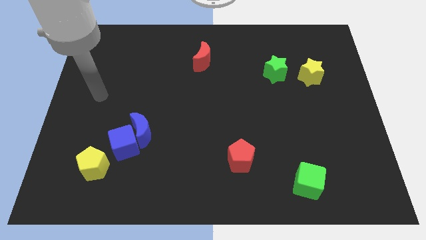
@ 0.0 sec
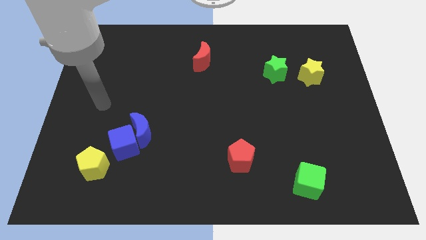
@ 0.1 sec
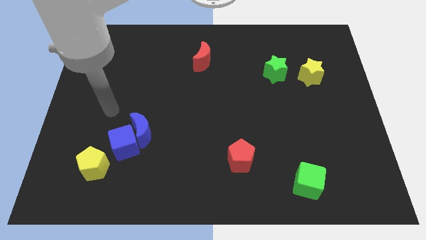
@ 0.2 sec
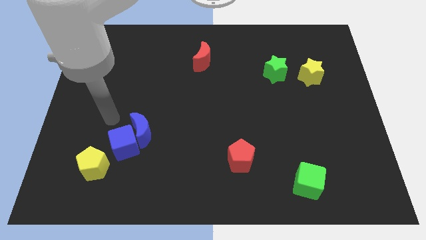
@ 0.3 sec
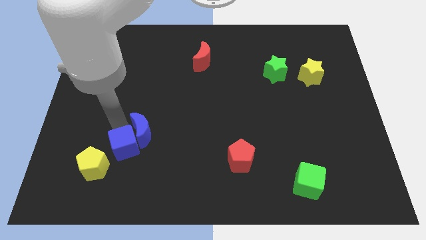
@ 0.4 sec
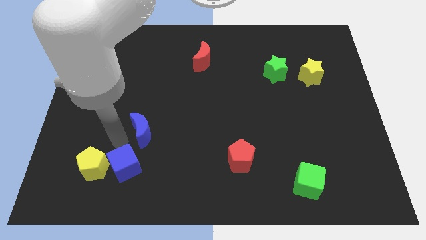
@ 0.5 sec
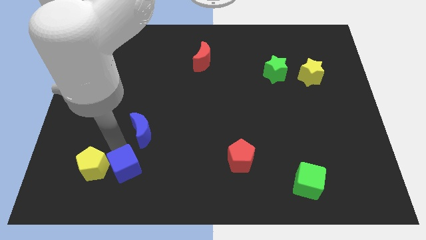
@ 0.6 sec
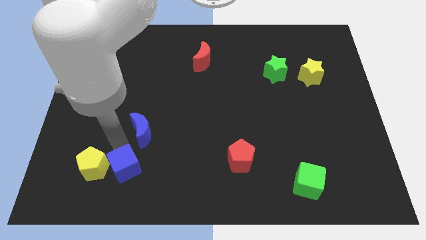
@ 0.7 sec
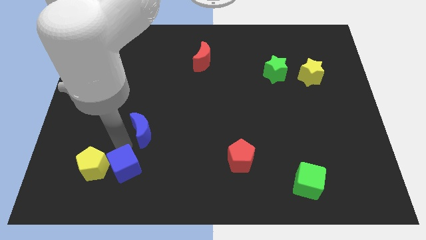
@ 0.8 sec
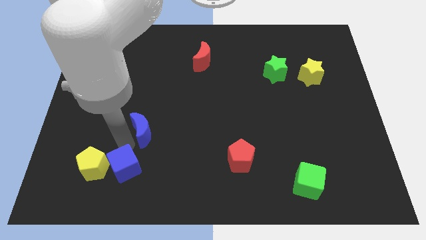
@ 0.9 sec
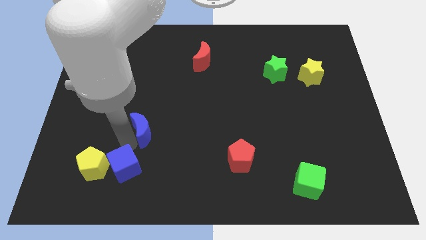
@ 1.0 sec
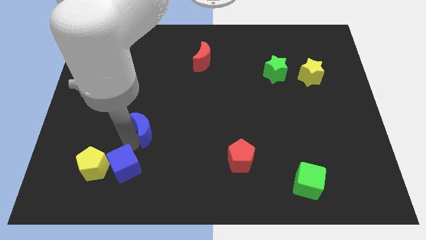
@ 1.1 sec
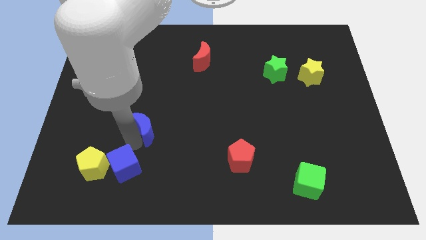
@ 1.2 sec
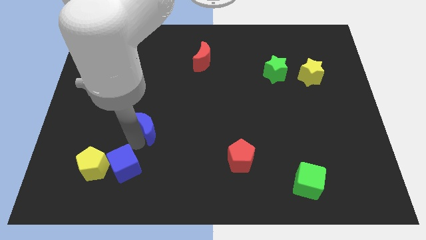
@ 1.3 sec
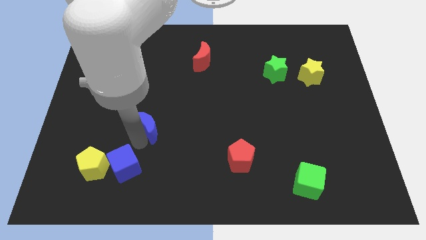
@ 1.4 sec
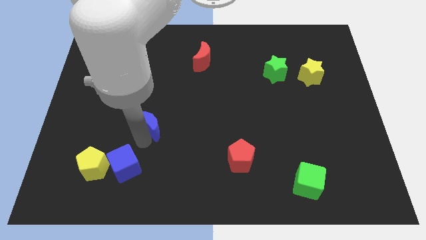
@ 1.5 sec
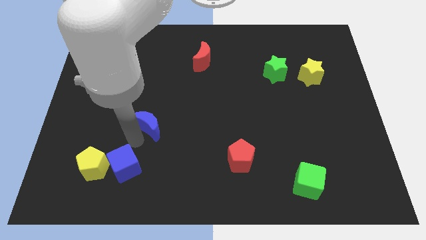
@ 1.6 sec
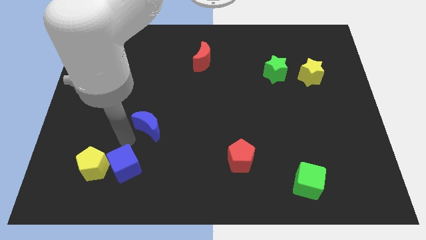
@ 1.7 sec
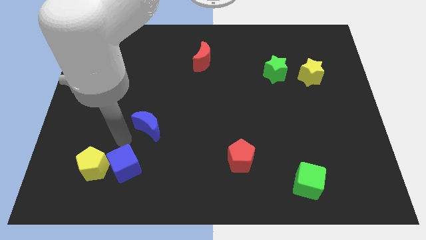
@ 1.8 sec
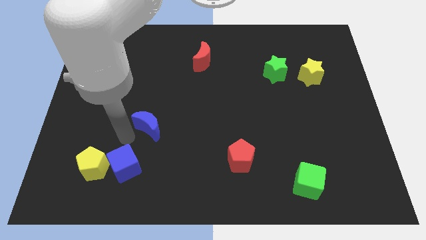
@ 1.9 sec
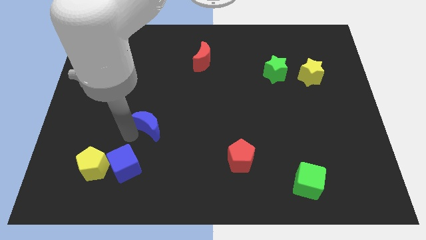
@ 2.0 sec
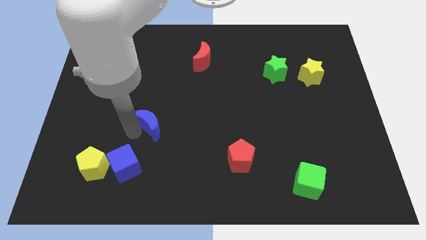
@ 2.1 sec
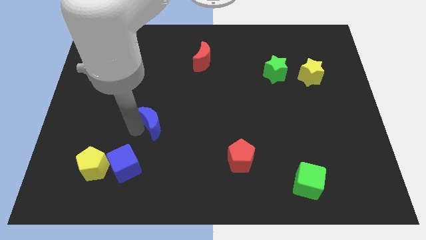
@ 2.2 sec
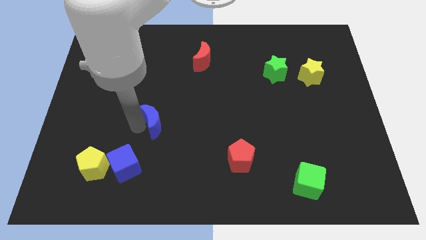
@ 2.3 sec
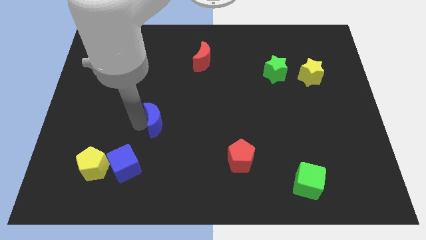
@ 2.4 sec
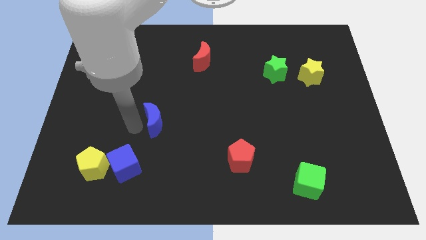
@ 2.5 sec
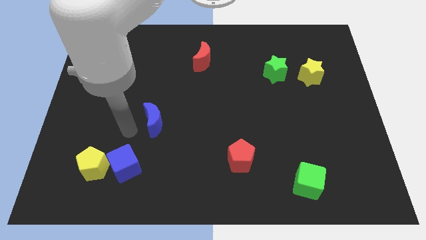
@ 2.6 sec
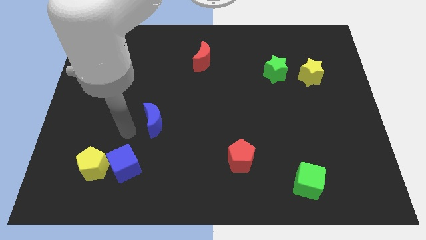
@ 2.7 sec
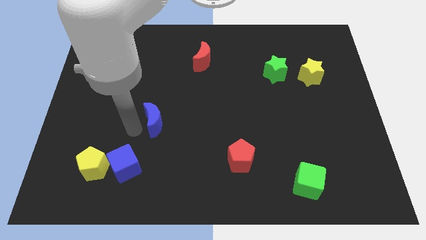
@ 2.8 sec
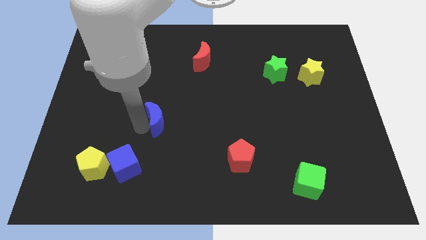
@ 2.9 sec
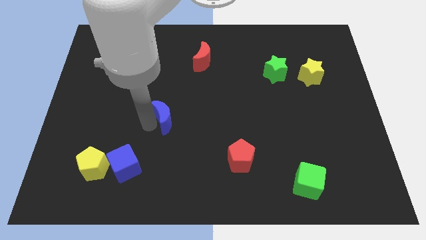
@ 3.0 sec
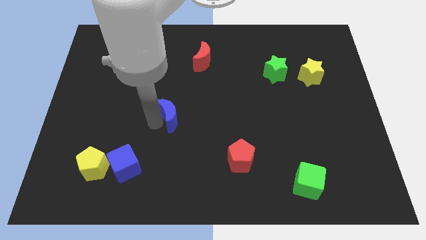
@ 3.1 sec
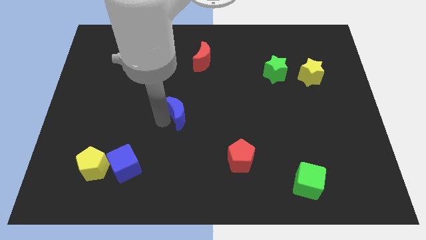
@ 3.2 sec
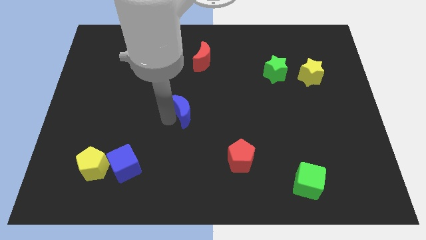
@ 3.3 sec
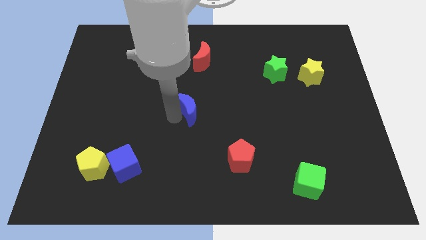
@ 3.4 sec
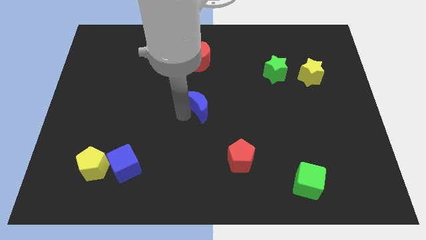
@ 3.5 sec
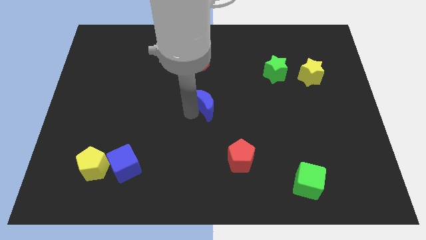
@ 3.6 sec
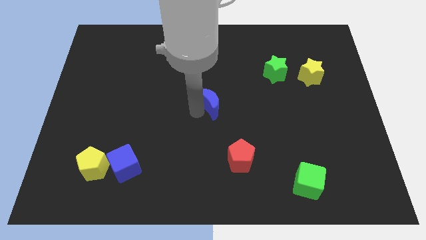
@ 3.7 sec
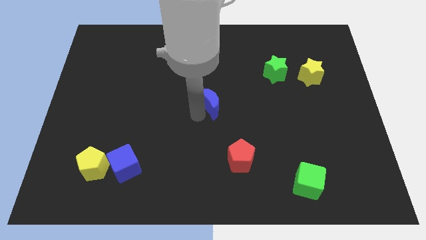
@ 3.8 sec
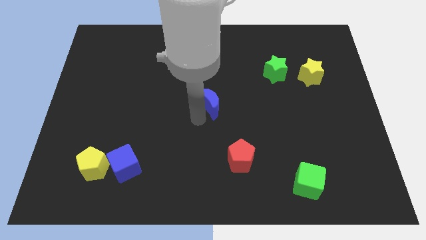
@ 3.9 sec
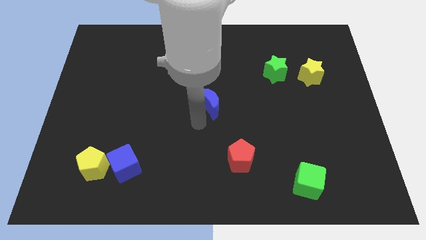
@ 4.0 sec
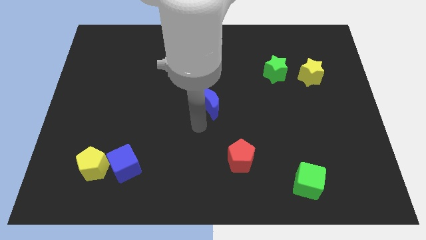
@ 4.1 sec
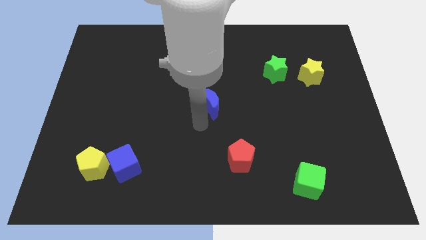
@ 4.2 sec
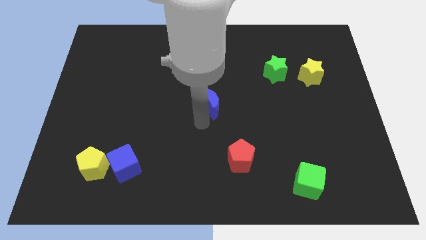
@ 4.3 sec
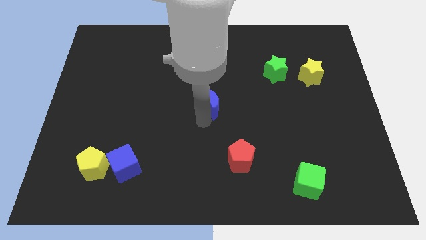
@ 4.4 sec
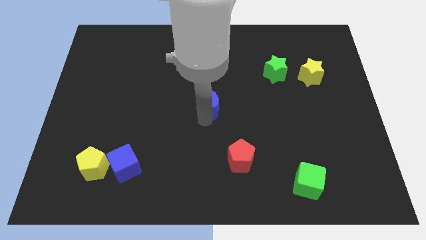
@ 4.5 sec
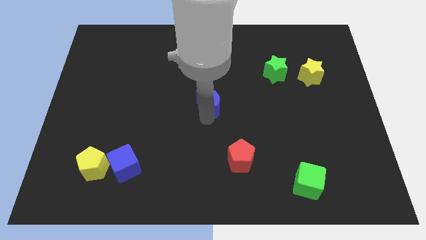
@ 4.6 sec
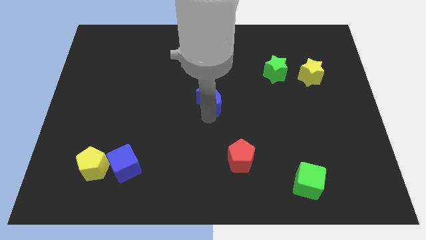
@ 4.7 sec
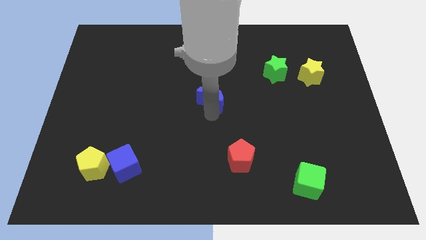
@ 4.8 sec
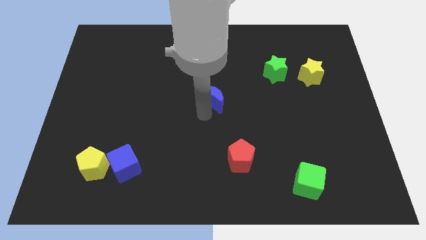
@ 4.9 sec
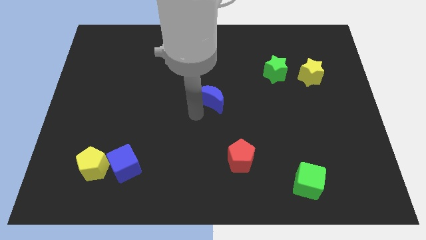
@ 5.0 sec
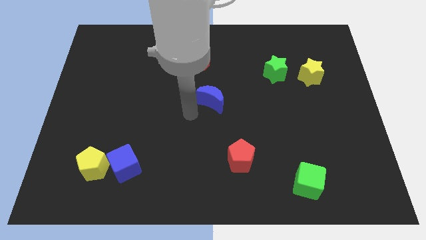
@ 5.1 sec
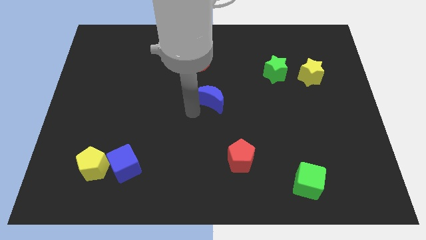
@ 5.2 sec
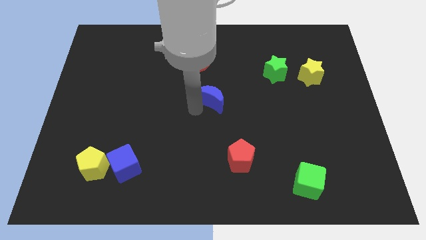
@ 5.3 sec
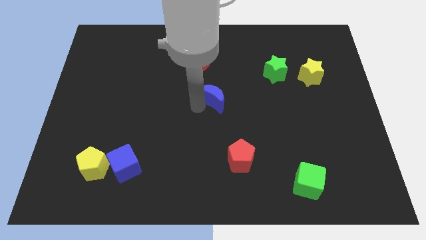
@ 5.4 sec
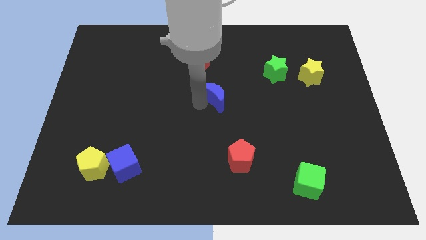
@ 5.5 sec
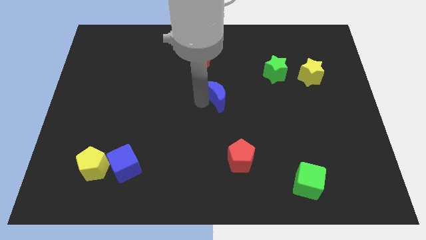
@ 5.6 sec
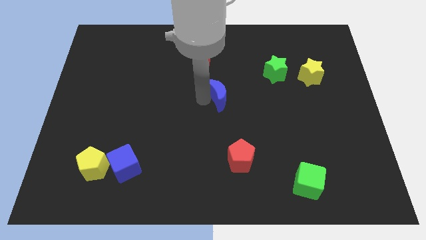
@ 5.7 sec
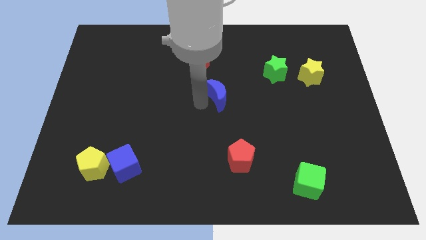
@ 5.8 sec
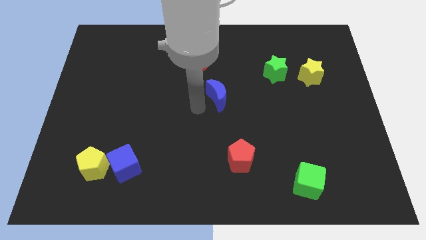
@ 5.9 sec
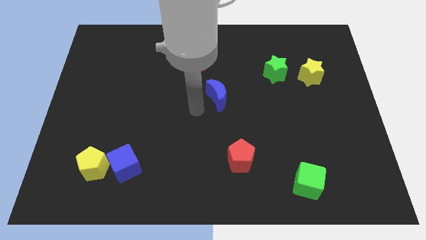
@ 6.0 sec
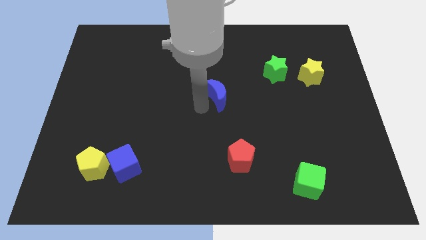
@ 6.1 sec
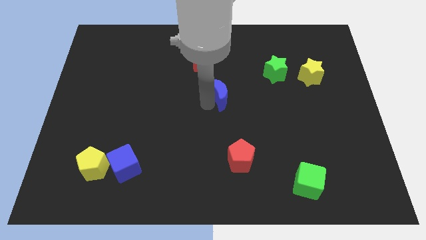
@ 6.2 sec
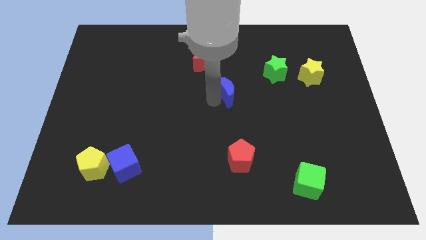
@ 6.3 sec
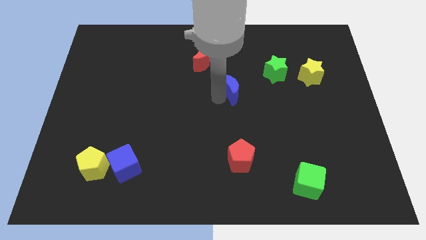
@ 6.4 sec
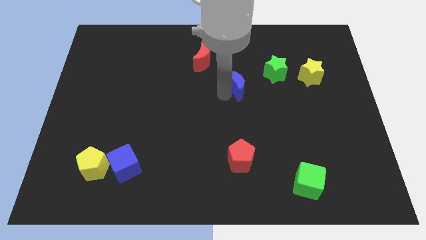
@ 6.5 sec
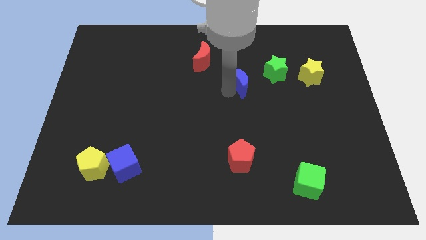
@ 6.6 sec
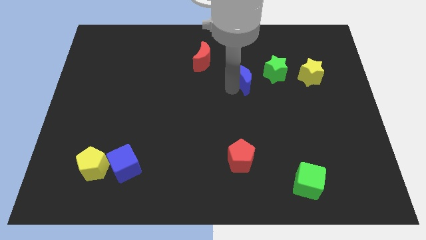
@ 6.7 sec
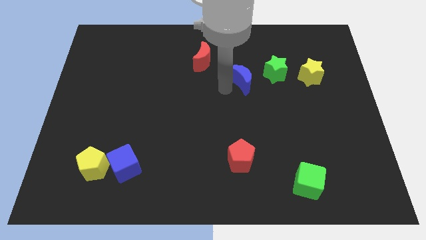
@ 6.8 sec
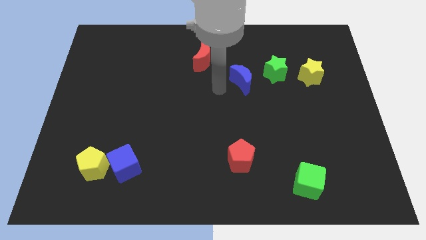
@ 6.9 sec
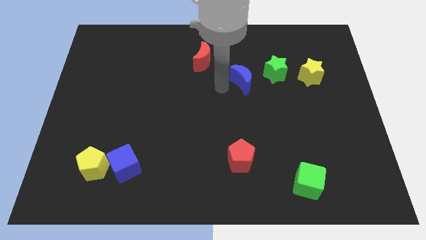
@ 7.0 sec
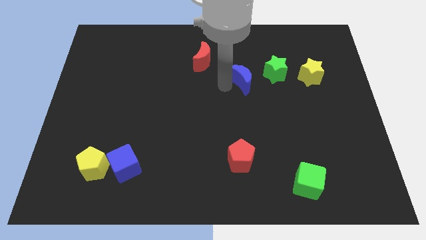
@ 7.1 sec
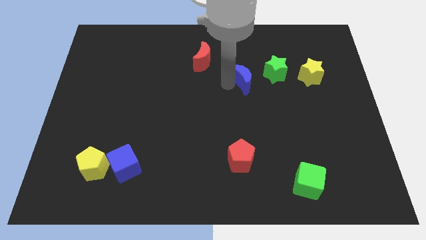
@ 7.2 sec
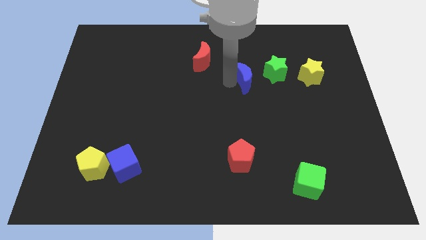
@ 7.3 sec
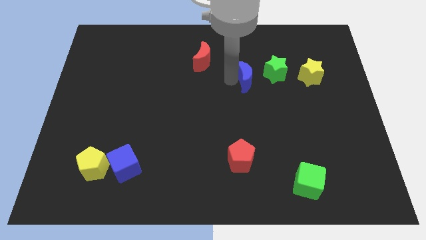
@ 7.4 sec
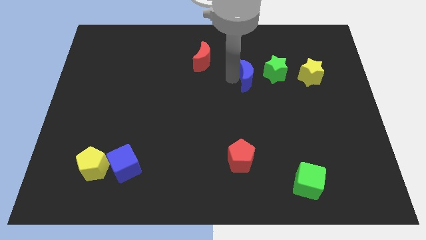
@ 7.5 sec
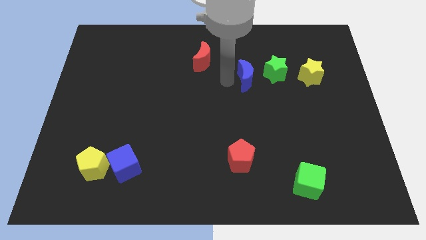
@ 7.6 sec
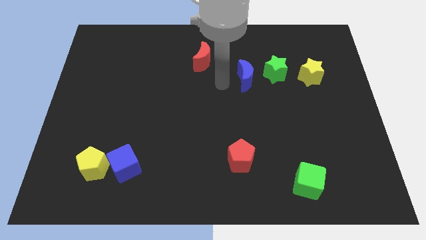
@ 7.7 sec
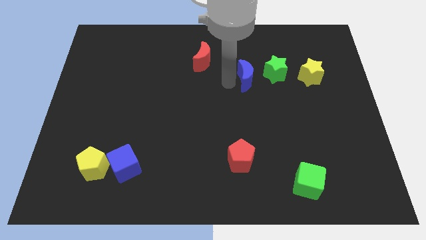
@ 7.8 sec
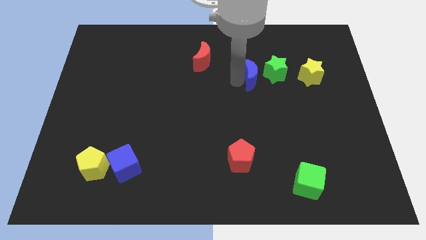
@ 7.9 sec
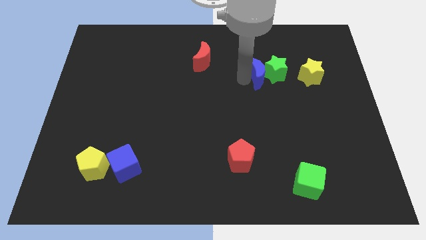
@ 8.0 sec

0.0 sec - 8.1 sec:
put the blue moon close to the green star
